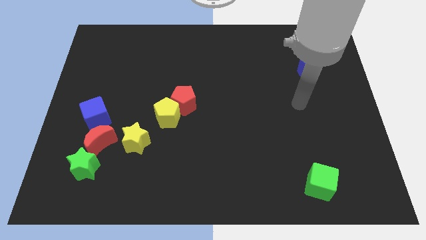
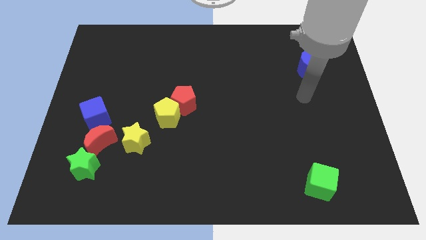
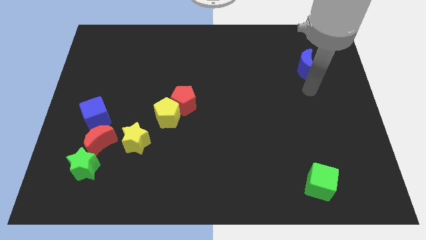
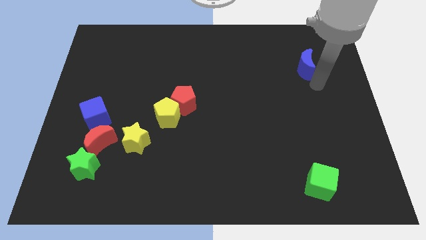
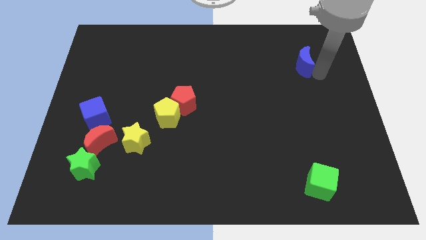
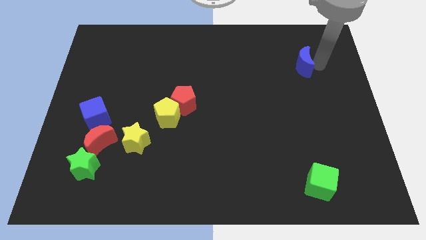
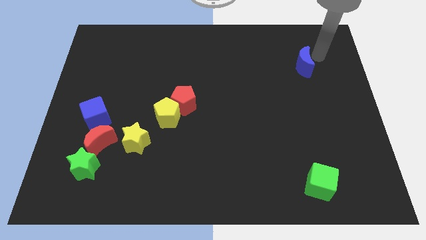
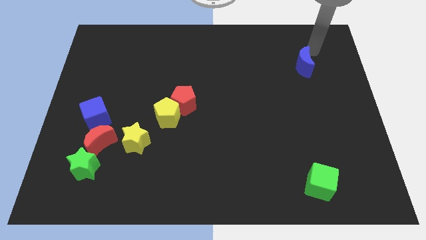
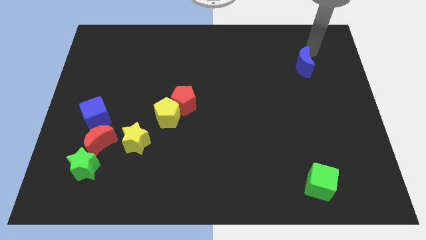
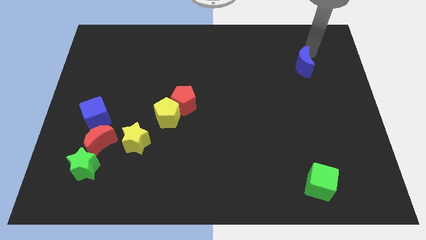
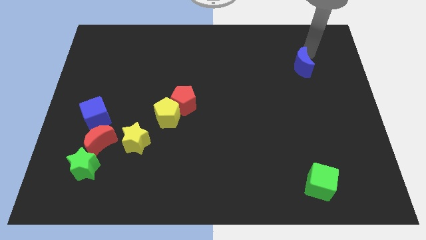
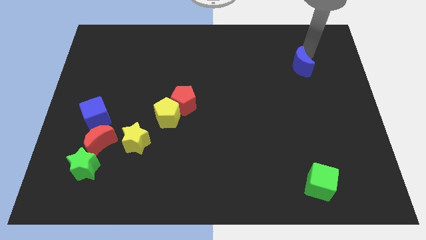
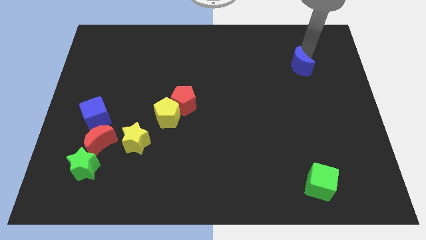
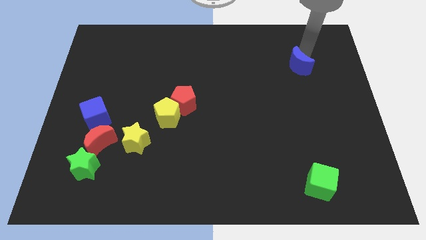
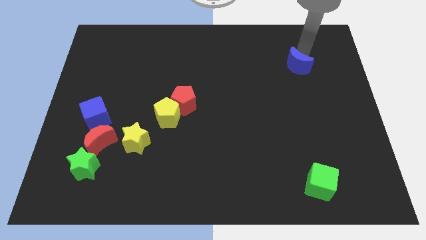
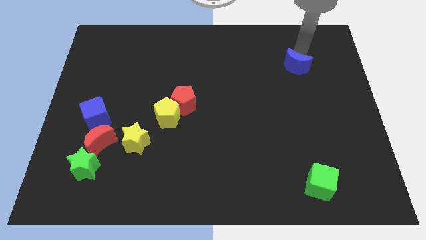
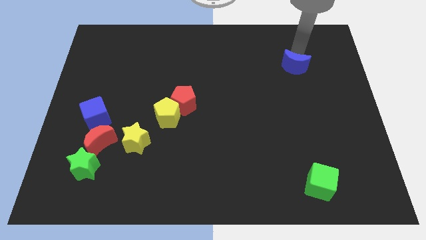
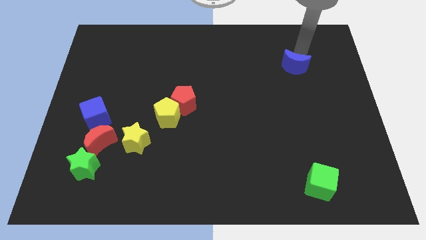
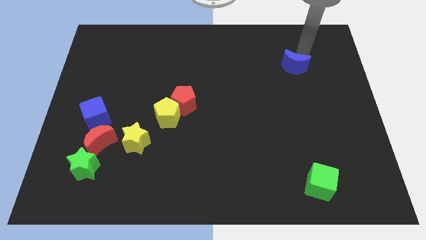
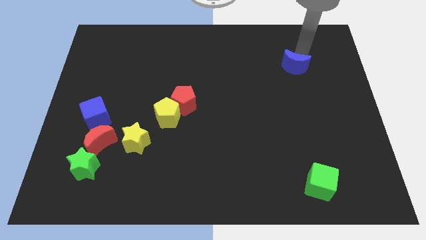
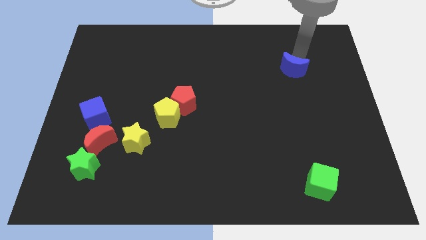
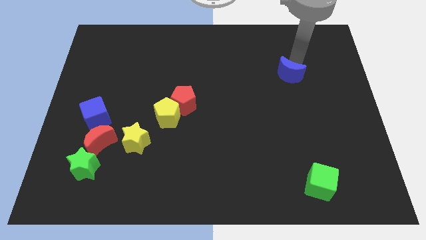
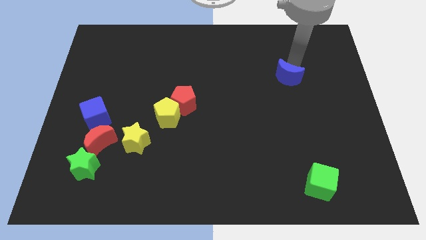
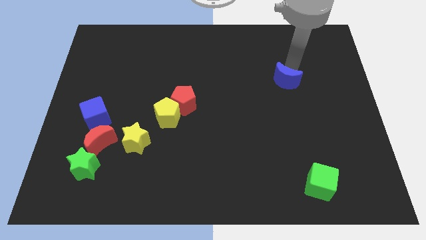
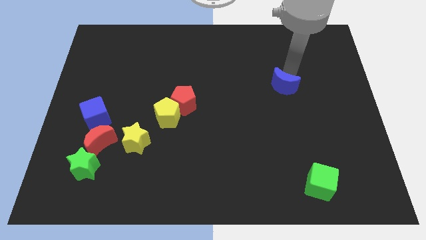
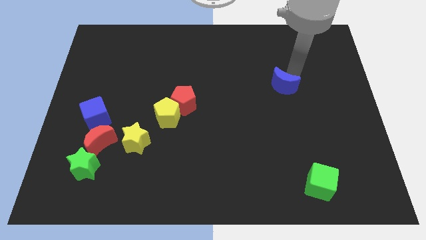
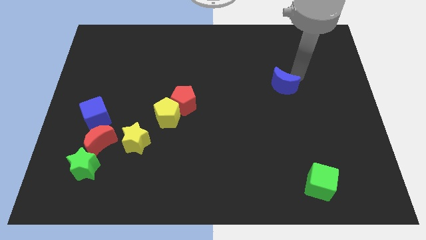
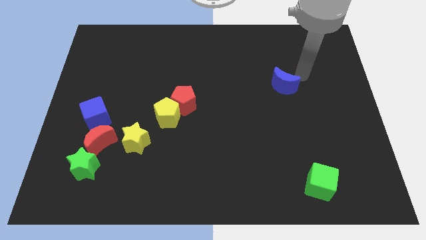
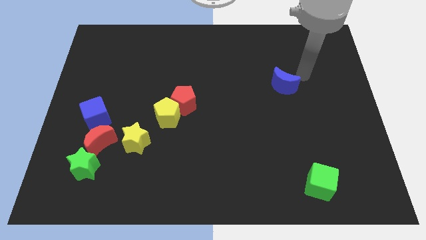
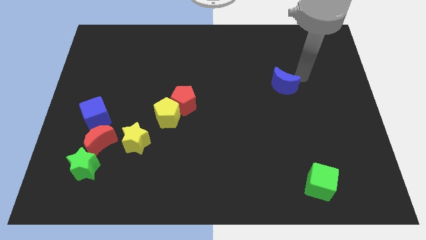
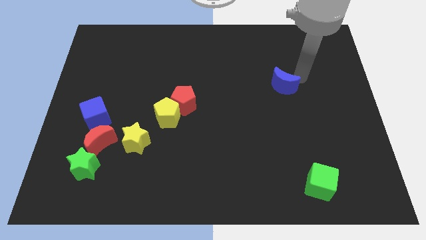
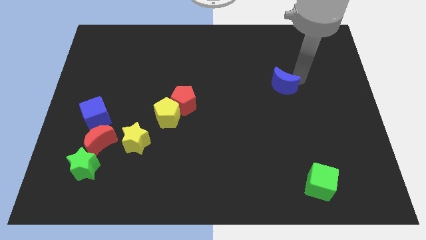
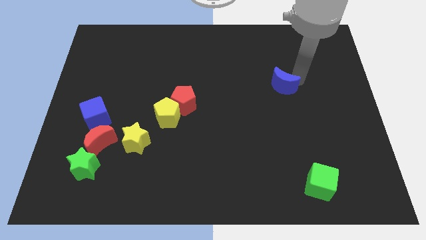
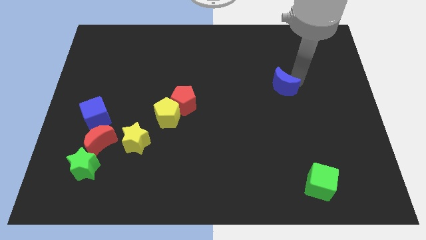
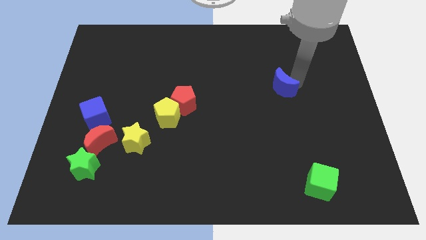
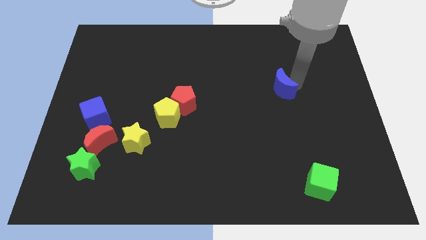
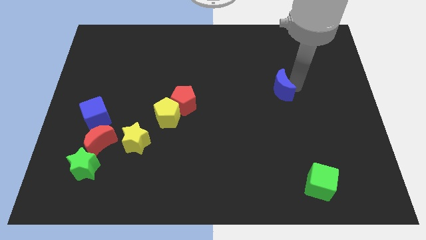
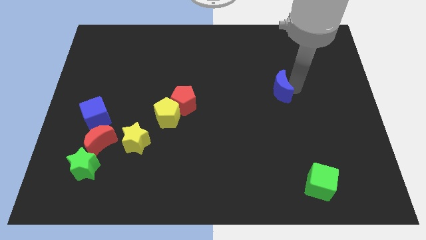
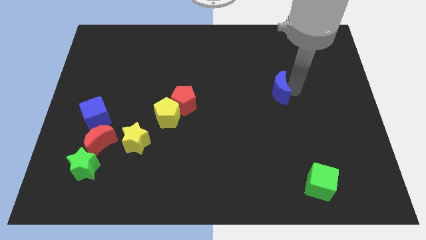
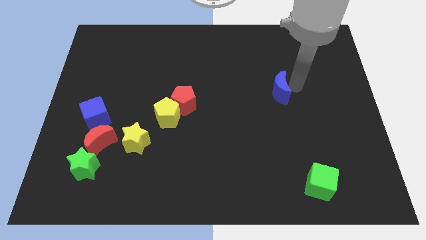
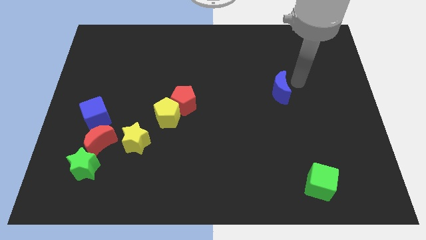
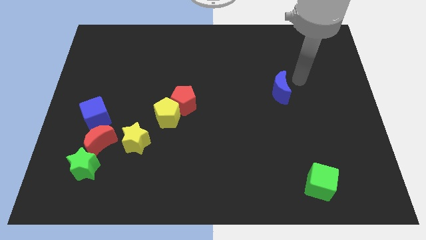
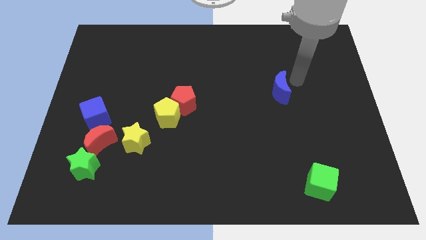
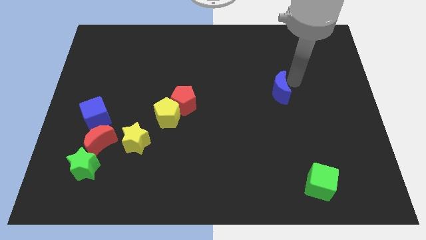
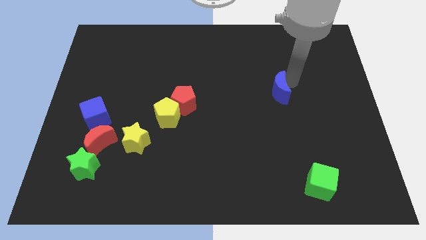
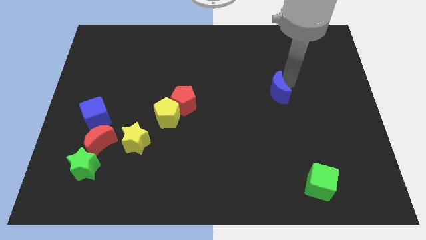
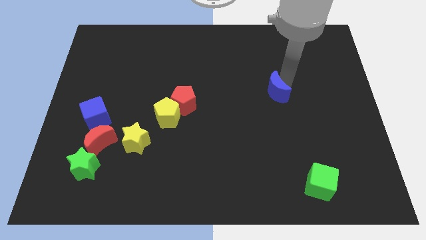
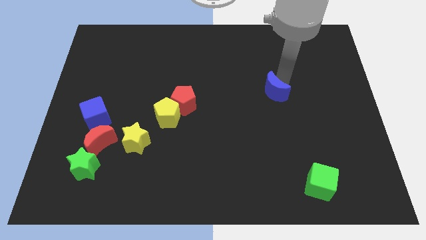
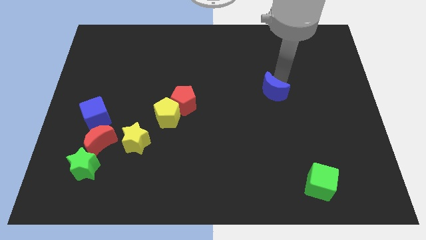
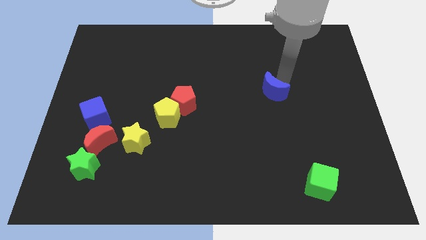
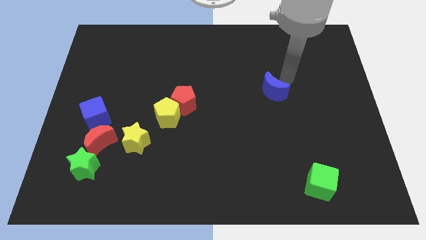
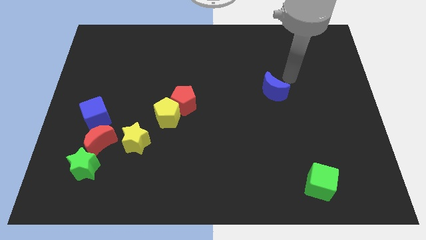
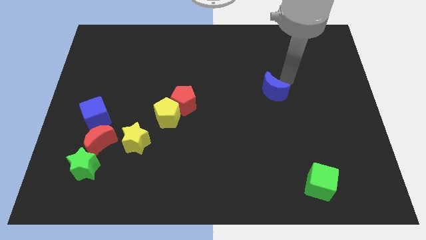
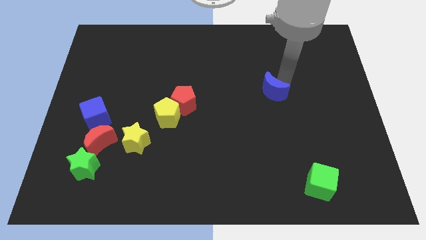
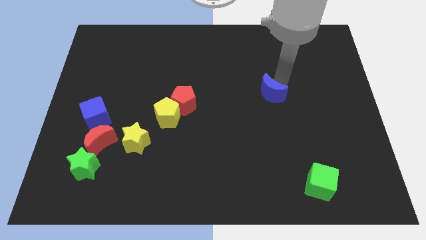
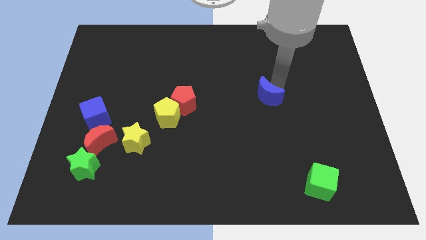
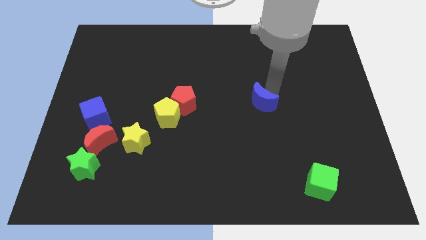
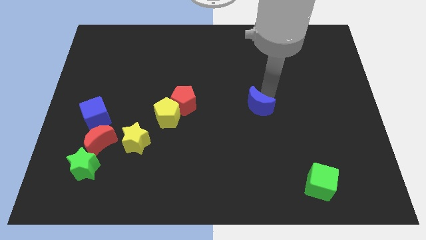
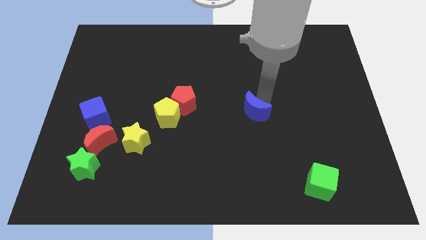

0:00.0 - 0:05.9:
slide the blue moon downwards and then left

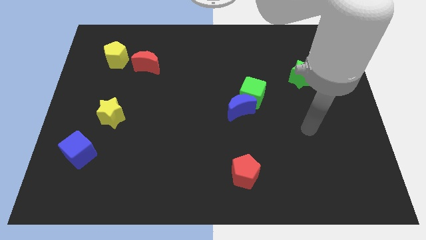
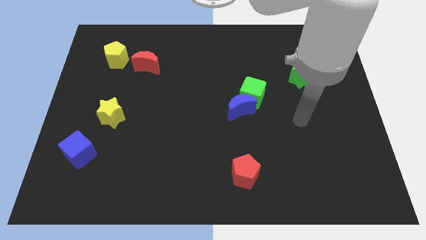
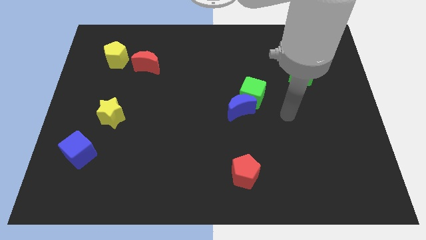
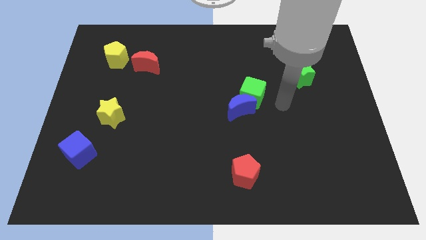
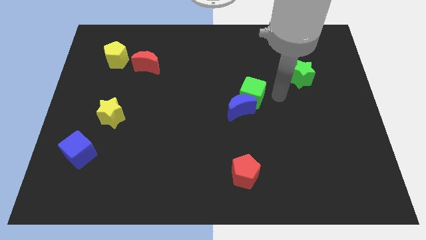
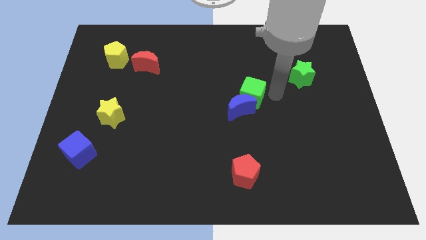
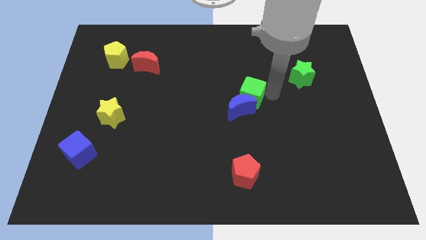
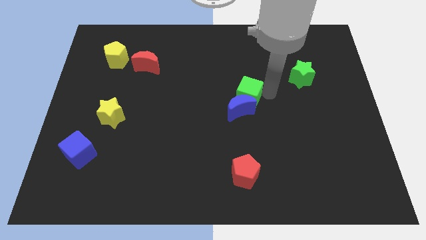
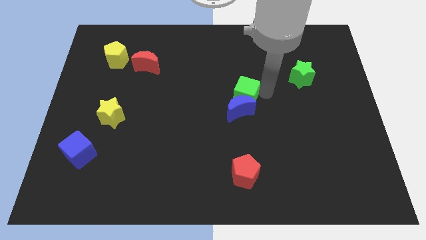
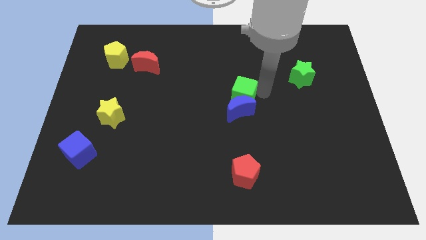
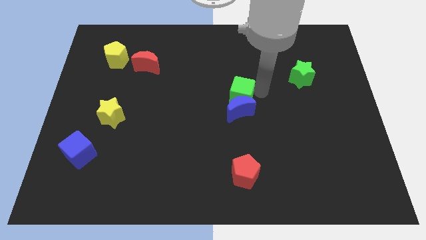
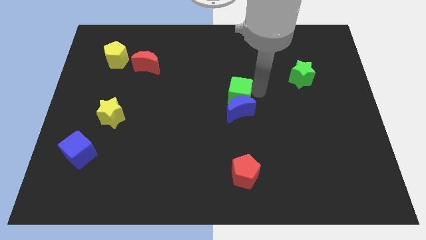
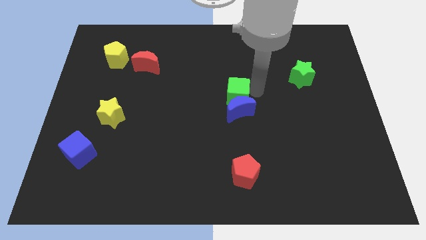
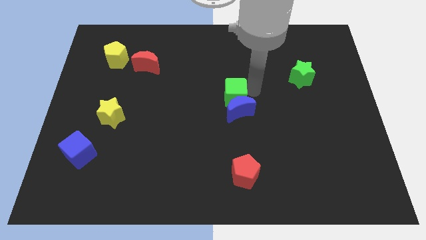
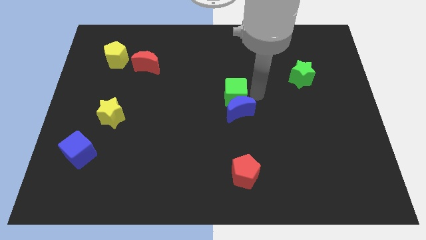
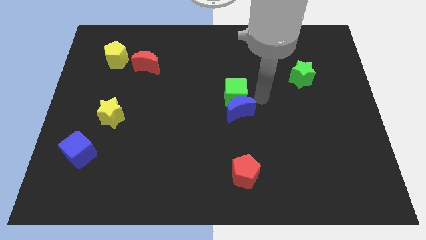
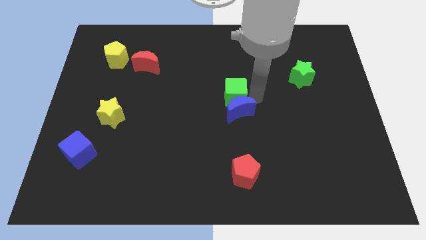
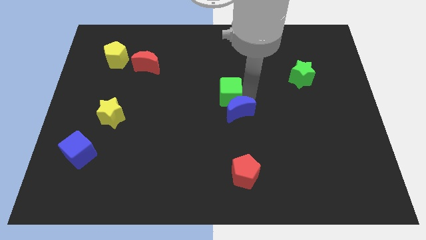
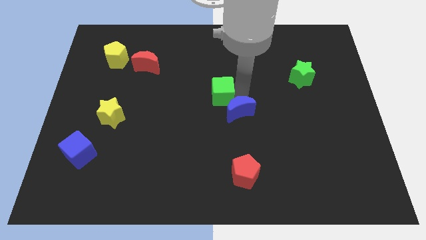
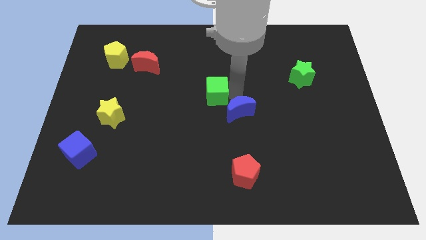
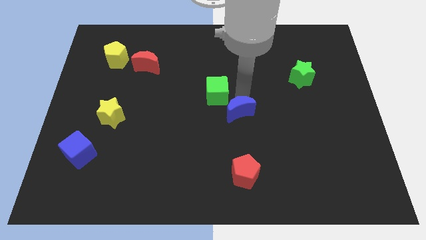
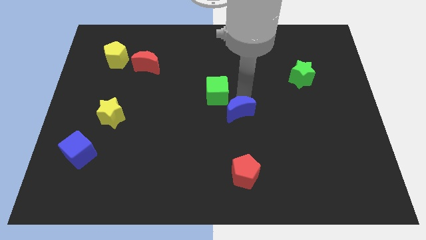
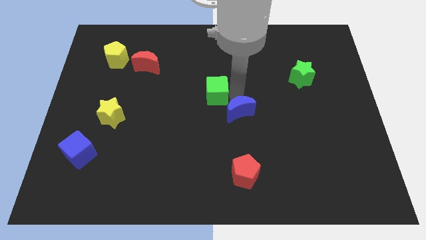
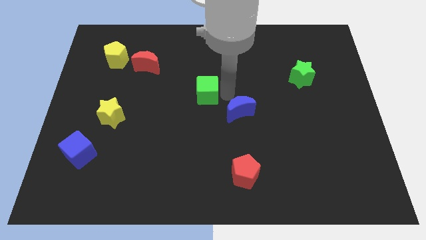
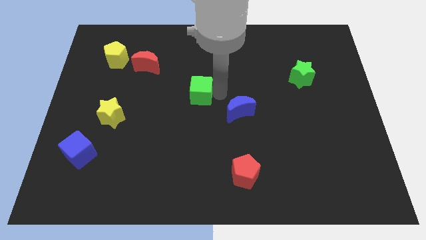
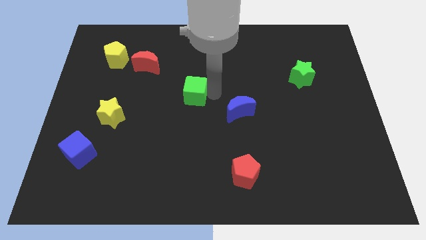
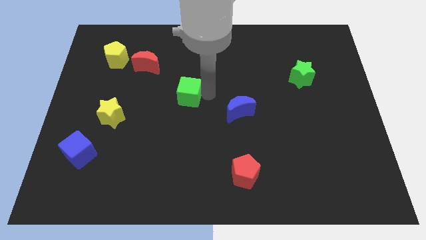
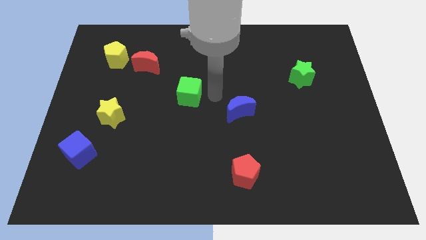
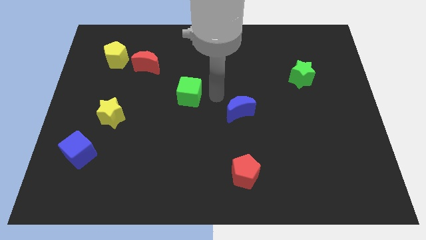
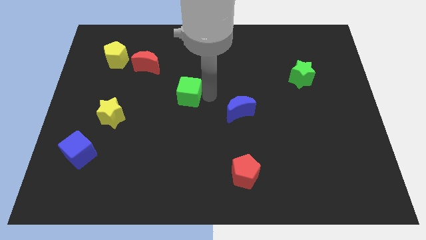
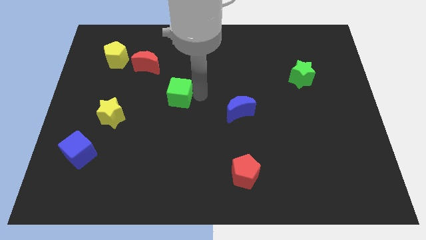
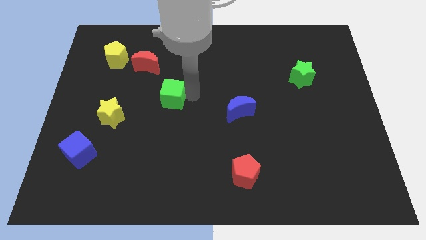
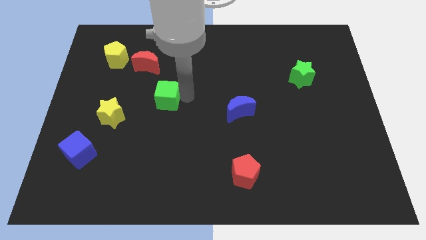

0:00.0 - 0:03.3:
push the green cube to the left
